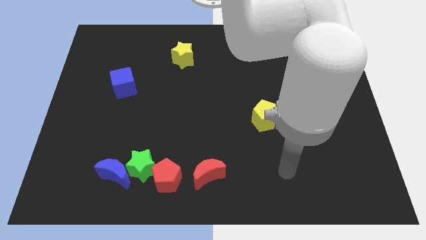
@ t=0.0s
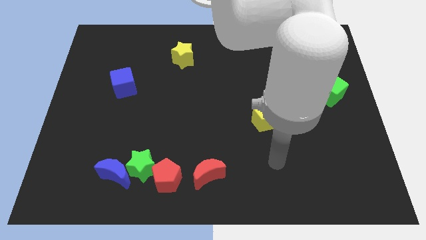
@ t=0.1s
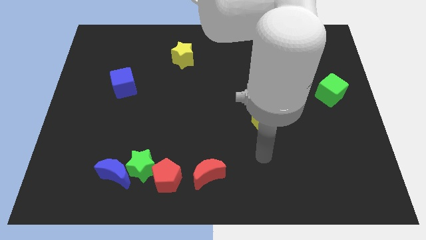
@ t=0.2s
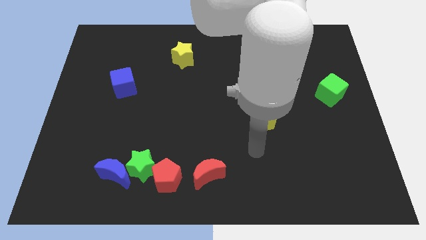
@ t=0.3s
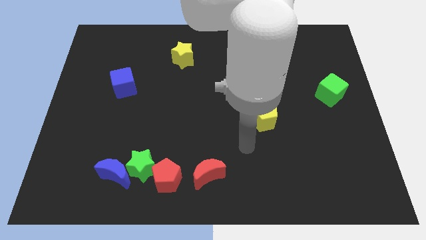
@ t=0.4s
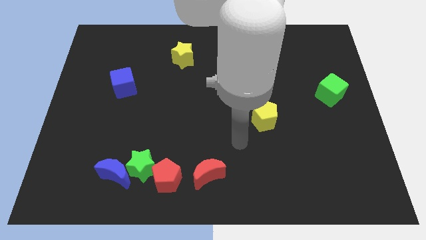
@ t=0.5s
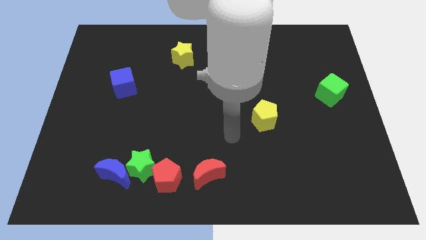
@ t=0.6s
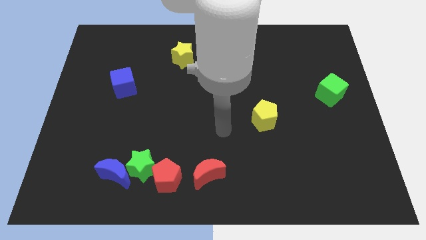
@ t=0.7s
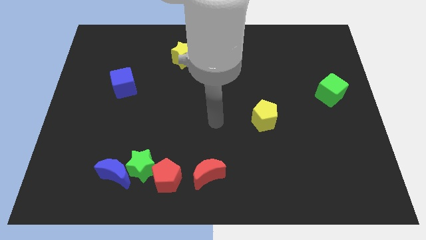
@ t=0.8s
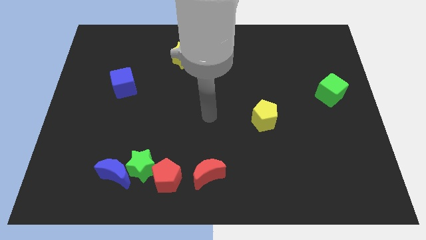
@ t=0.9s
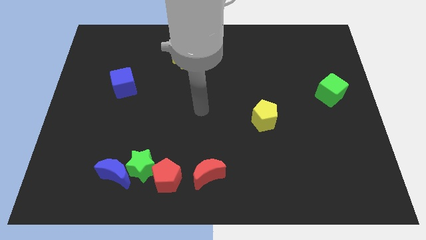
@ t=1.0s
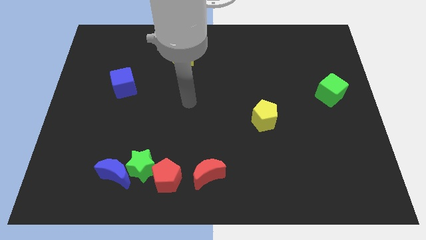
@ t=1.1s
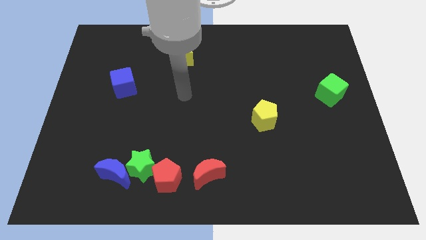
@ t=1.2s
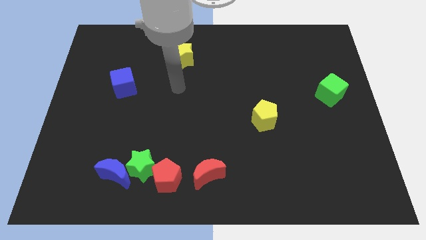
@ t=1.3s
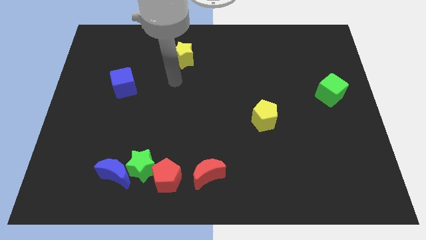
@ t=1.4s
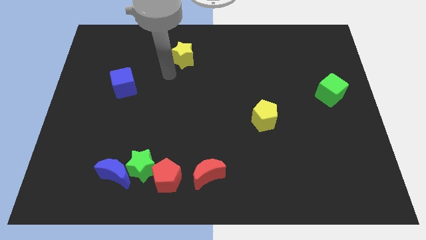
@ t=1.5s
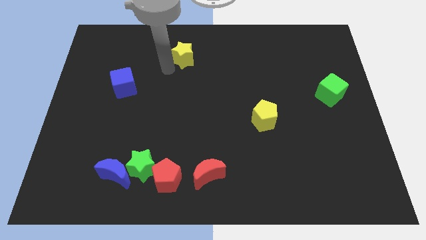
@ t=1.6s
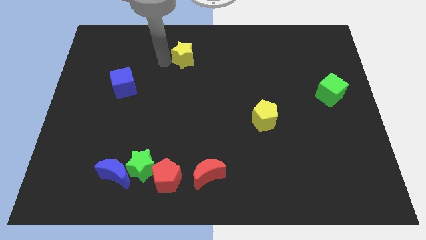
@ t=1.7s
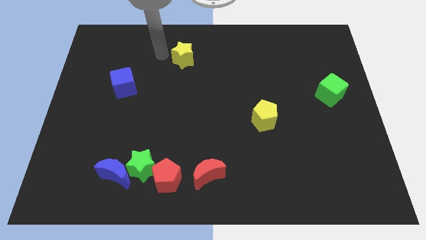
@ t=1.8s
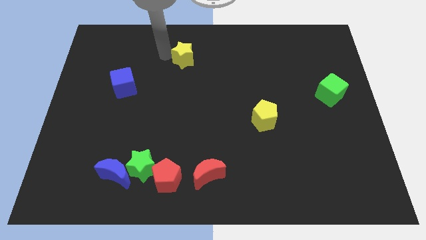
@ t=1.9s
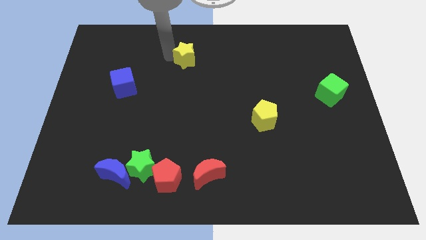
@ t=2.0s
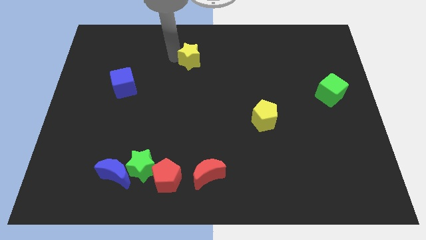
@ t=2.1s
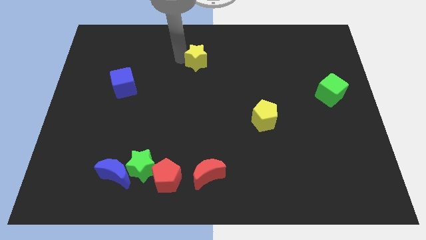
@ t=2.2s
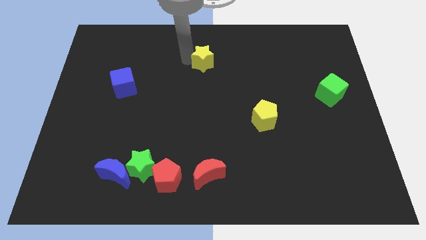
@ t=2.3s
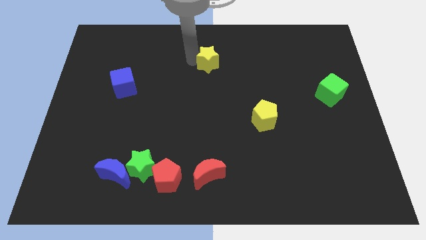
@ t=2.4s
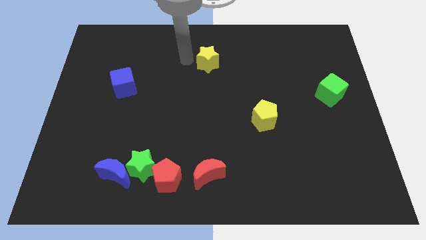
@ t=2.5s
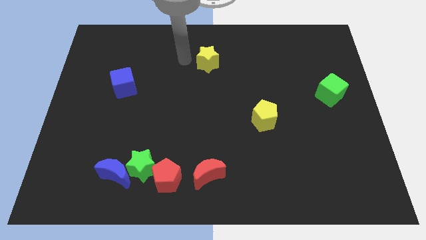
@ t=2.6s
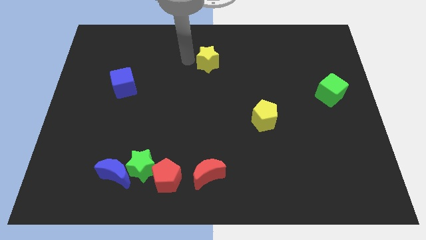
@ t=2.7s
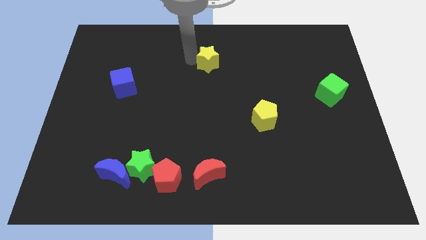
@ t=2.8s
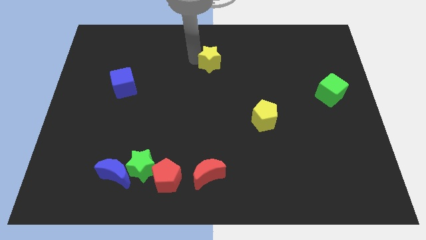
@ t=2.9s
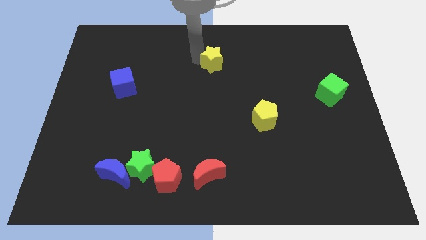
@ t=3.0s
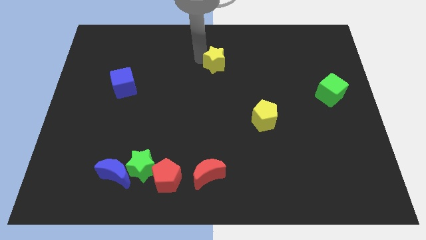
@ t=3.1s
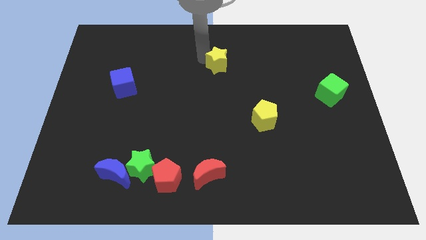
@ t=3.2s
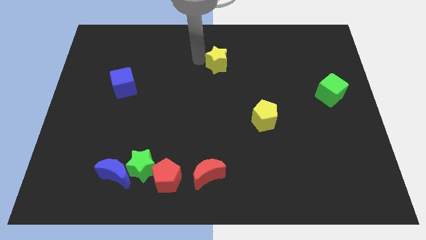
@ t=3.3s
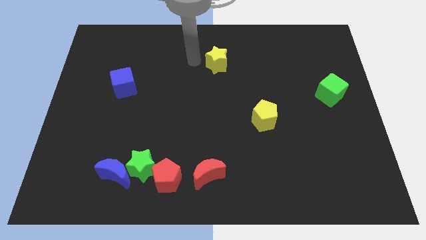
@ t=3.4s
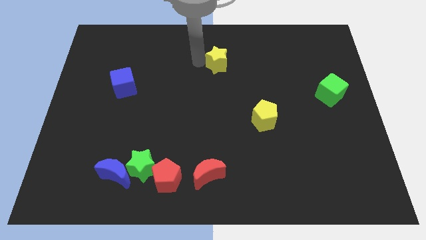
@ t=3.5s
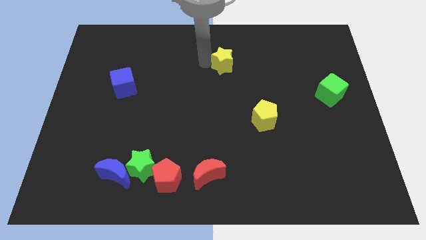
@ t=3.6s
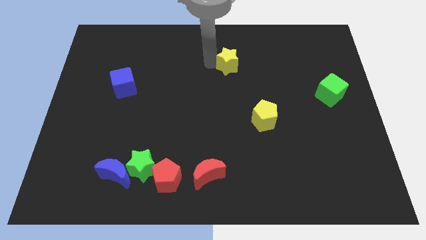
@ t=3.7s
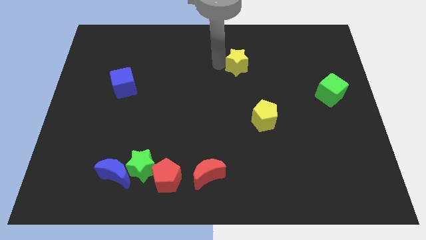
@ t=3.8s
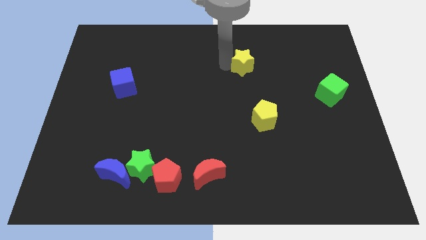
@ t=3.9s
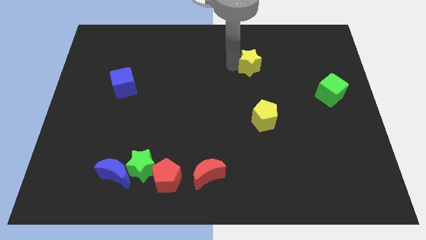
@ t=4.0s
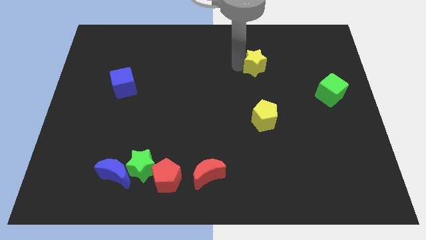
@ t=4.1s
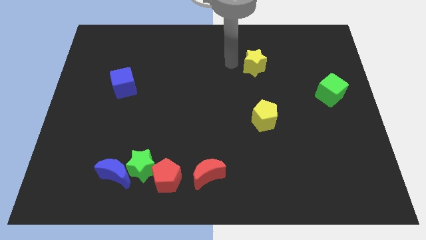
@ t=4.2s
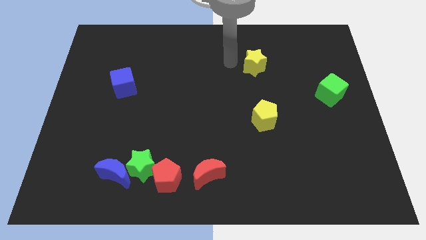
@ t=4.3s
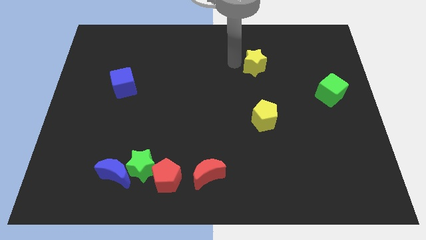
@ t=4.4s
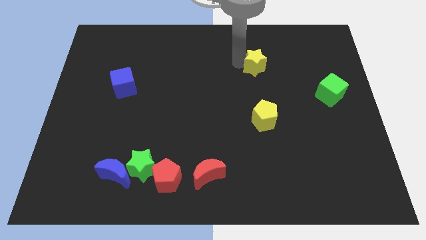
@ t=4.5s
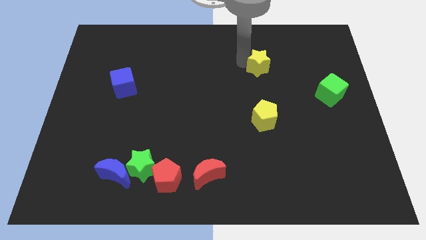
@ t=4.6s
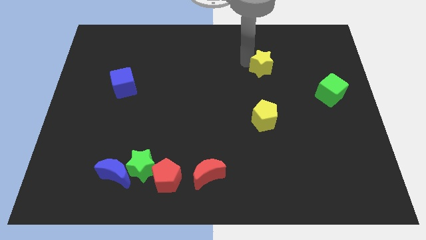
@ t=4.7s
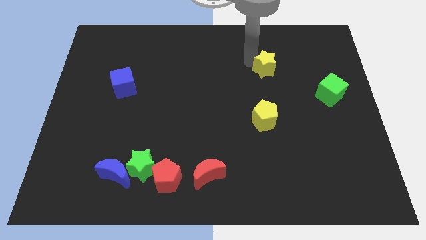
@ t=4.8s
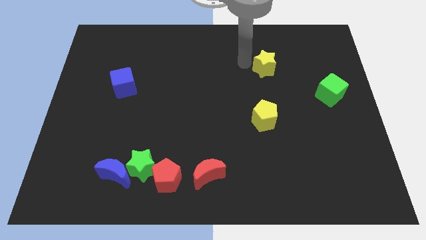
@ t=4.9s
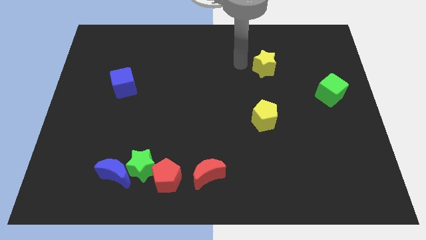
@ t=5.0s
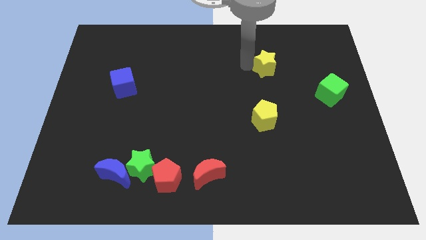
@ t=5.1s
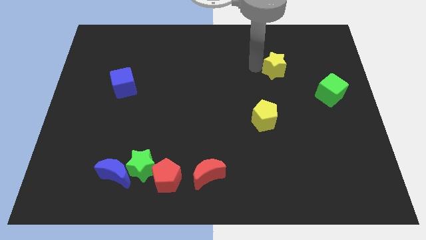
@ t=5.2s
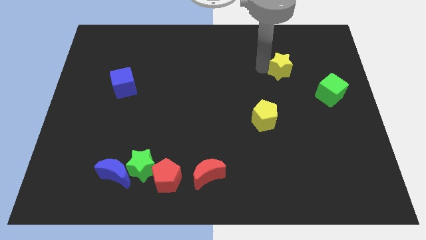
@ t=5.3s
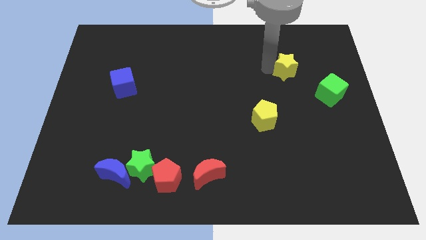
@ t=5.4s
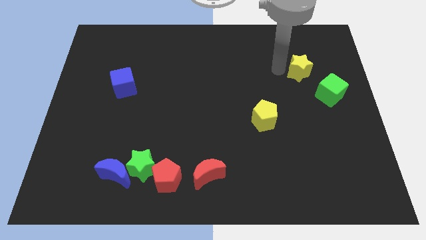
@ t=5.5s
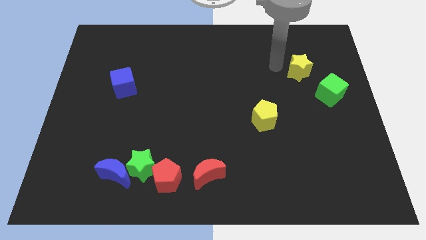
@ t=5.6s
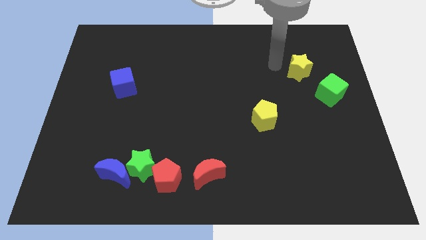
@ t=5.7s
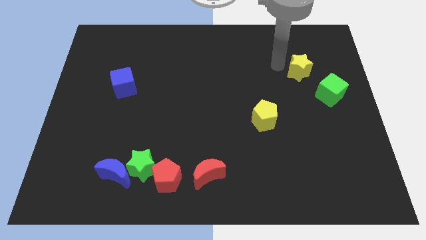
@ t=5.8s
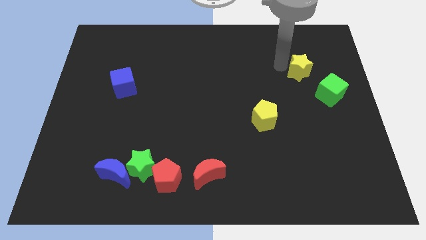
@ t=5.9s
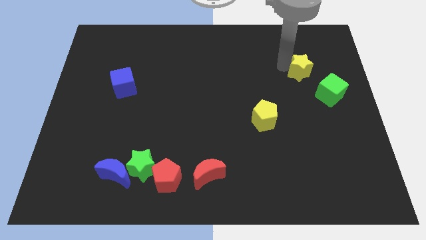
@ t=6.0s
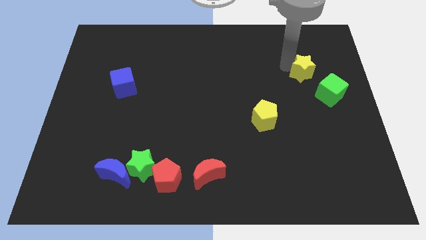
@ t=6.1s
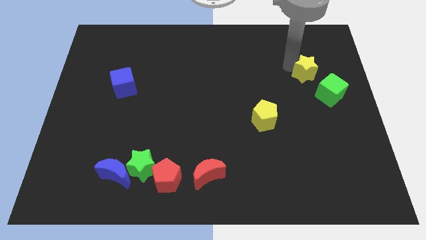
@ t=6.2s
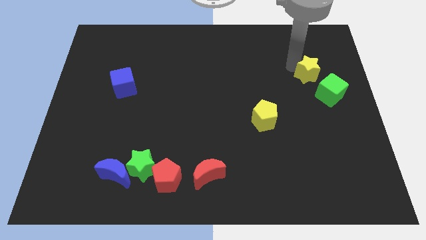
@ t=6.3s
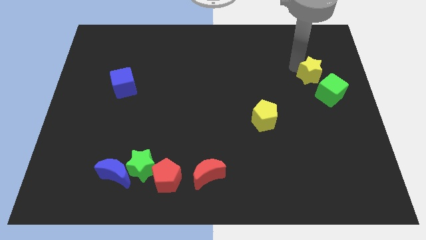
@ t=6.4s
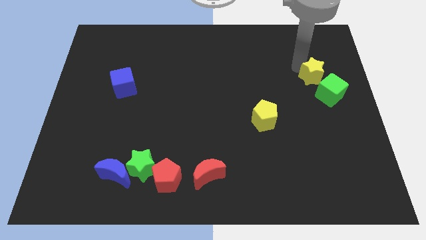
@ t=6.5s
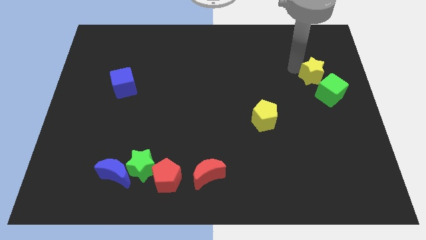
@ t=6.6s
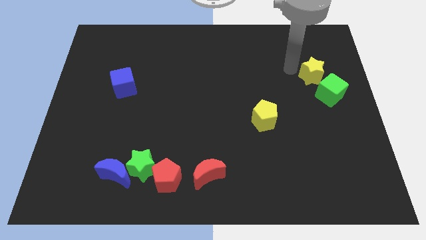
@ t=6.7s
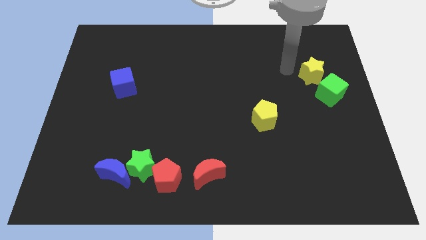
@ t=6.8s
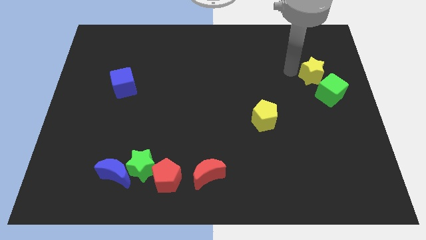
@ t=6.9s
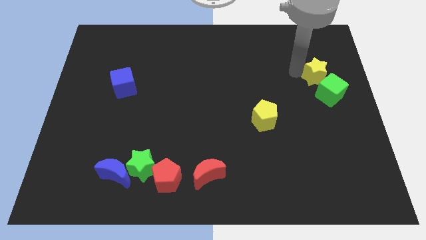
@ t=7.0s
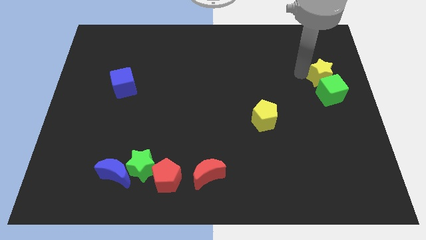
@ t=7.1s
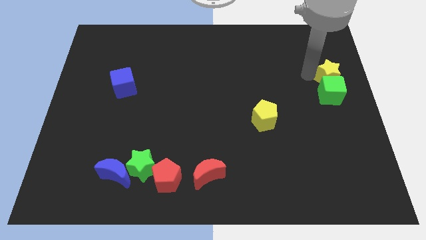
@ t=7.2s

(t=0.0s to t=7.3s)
put the yellow star to the right side of the board
